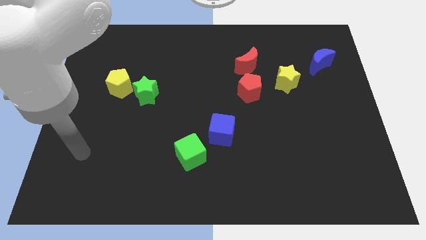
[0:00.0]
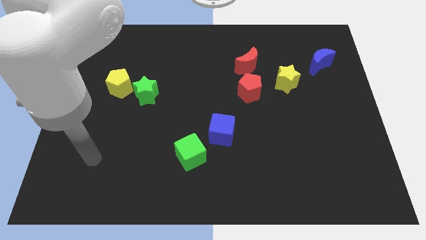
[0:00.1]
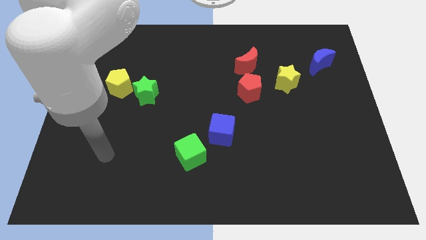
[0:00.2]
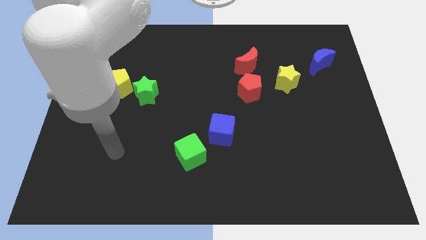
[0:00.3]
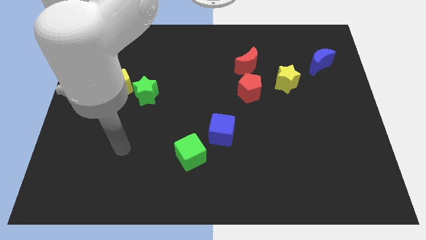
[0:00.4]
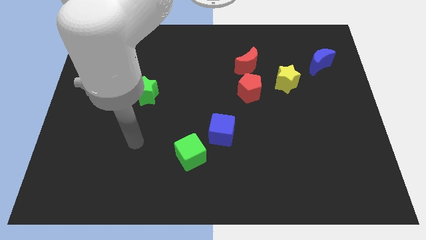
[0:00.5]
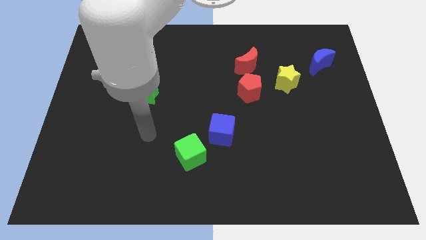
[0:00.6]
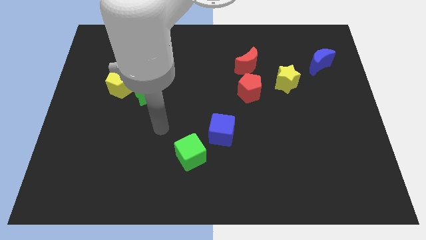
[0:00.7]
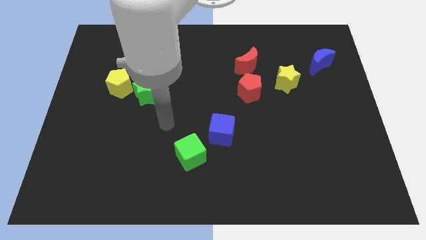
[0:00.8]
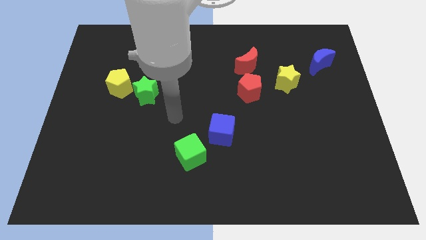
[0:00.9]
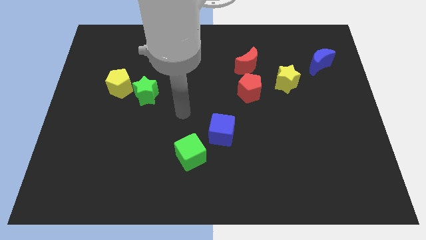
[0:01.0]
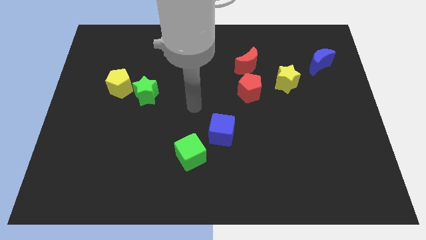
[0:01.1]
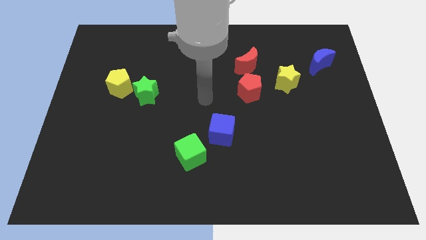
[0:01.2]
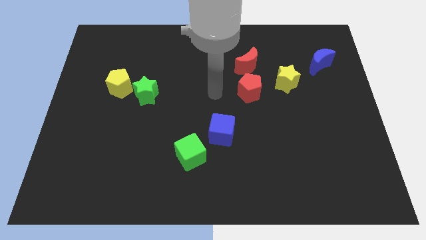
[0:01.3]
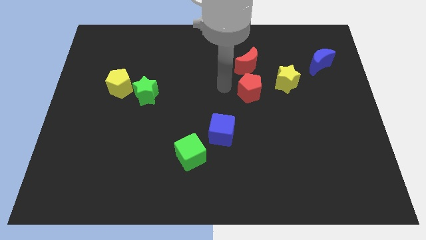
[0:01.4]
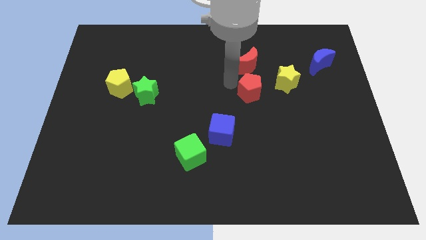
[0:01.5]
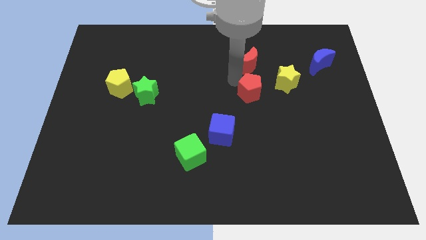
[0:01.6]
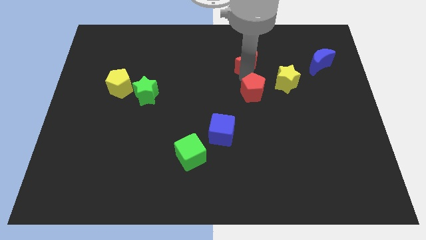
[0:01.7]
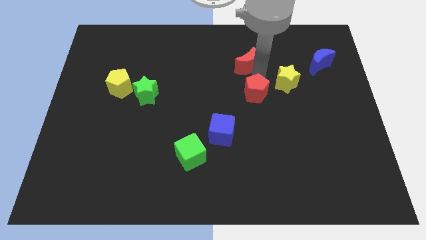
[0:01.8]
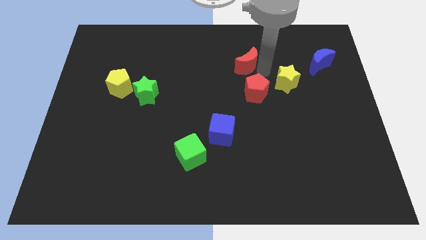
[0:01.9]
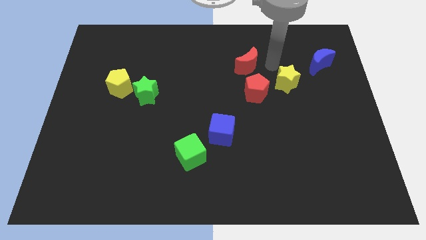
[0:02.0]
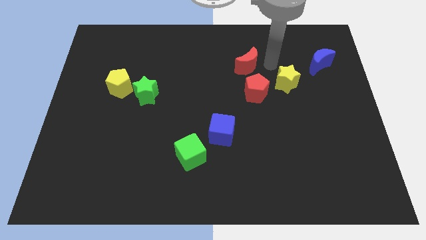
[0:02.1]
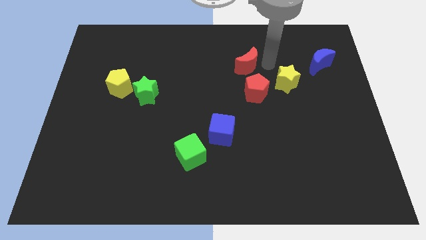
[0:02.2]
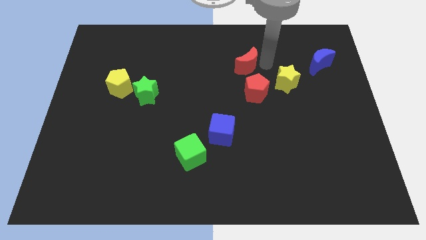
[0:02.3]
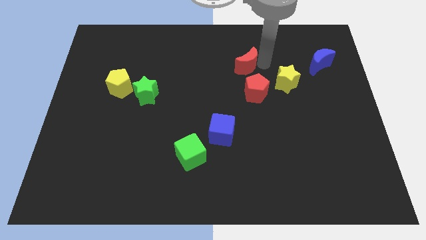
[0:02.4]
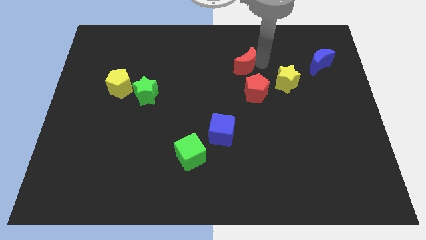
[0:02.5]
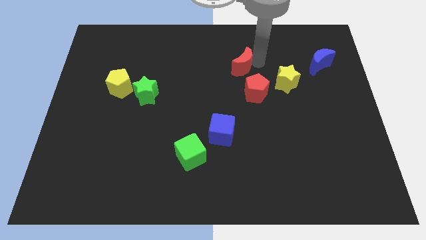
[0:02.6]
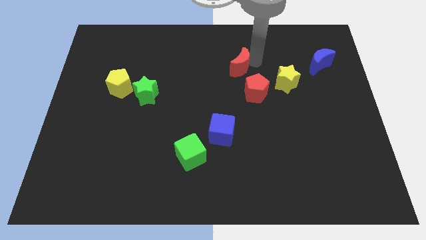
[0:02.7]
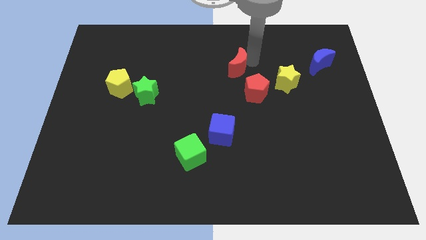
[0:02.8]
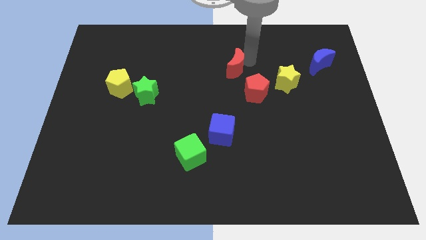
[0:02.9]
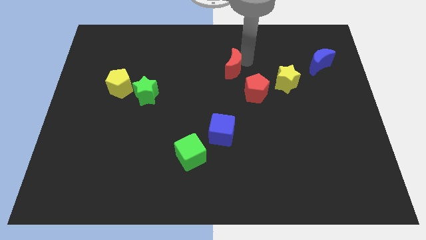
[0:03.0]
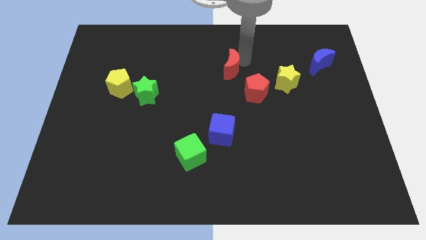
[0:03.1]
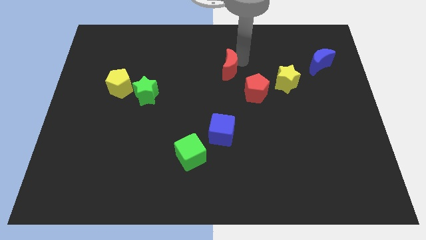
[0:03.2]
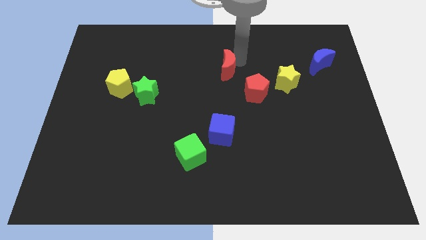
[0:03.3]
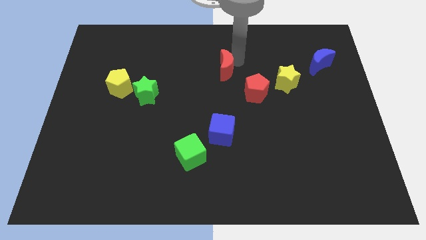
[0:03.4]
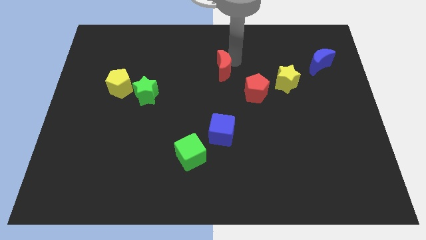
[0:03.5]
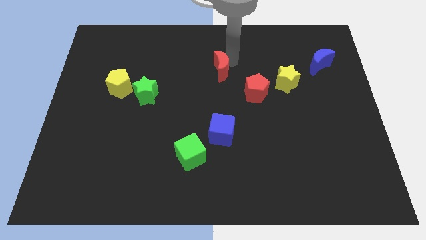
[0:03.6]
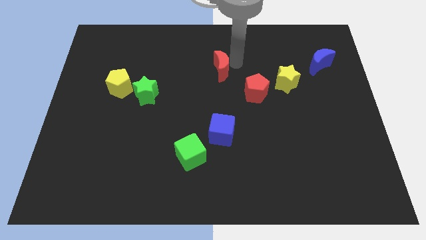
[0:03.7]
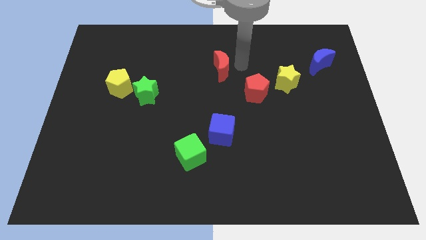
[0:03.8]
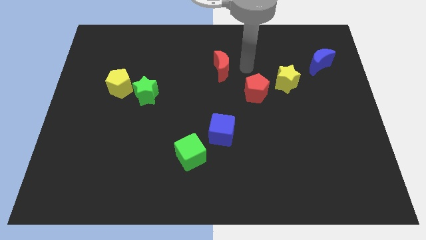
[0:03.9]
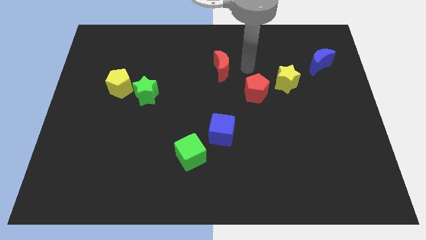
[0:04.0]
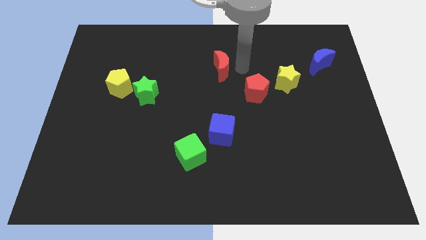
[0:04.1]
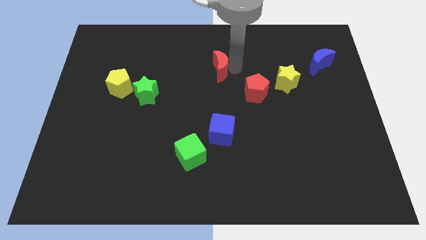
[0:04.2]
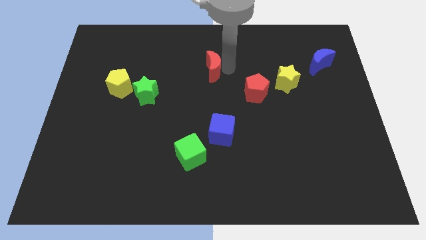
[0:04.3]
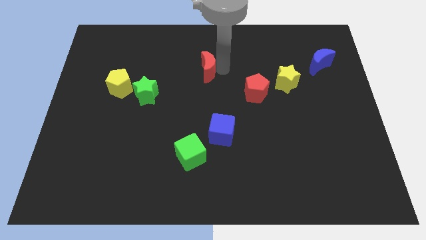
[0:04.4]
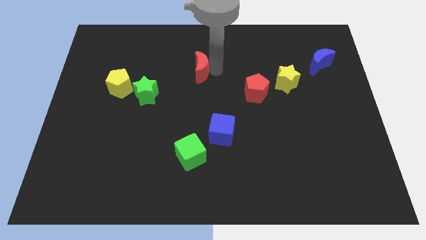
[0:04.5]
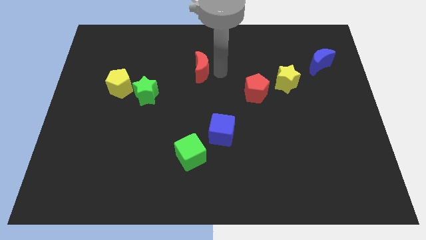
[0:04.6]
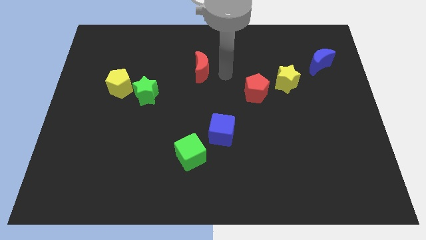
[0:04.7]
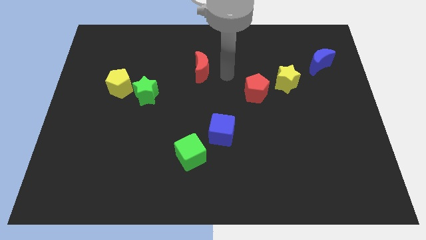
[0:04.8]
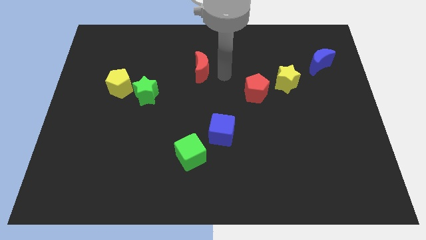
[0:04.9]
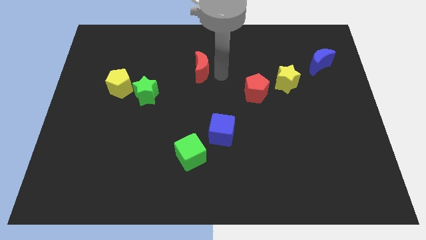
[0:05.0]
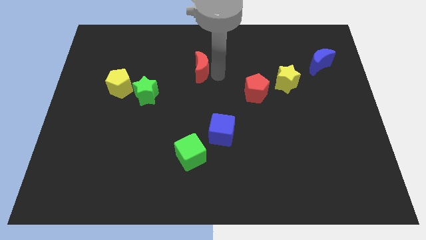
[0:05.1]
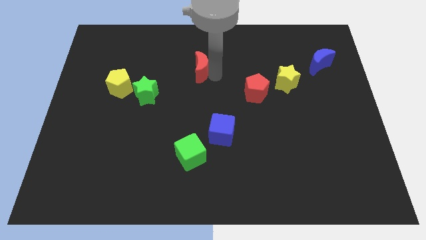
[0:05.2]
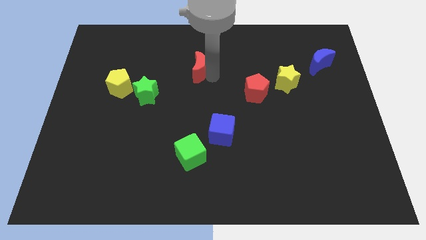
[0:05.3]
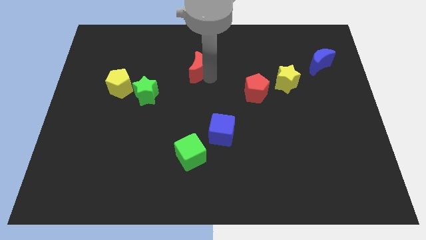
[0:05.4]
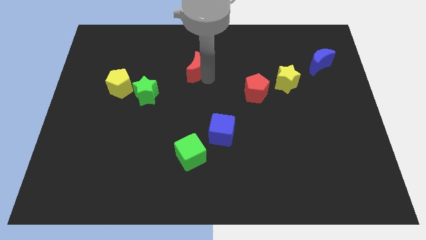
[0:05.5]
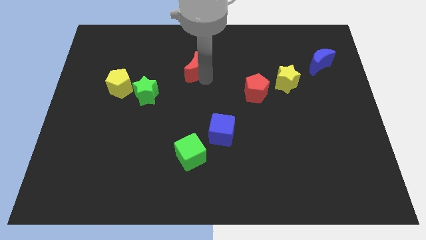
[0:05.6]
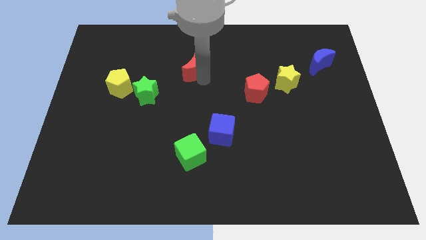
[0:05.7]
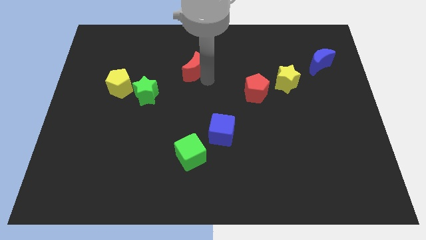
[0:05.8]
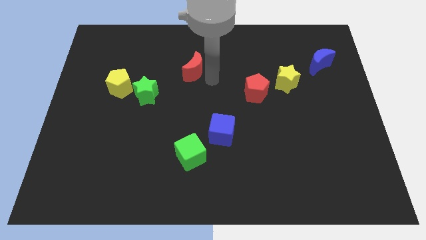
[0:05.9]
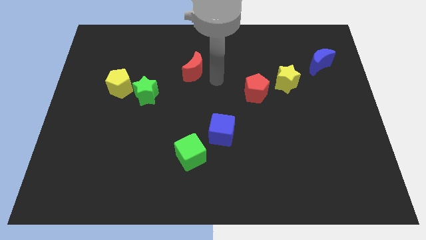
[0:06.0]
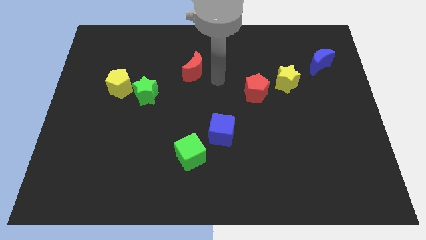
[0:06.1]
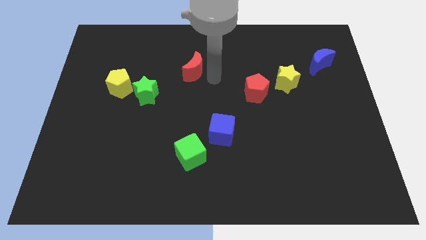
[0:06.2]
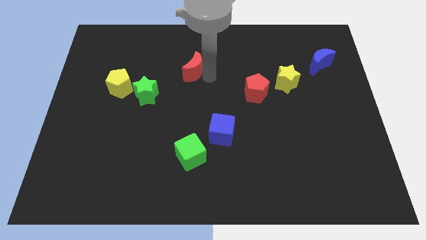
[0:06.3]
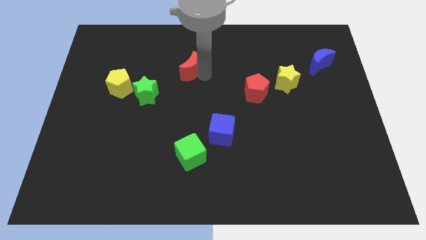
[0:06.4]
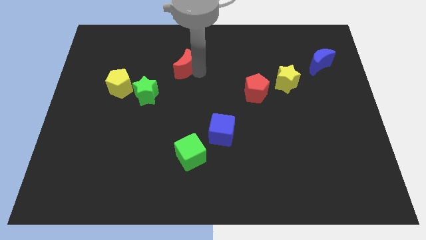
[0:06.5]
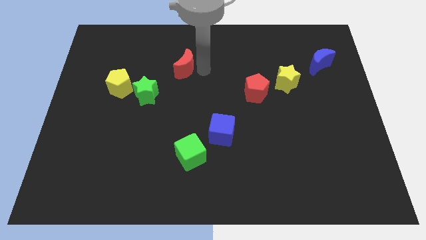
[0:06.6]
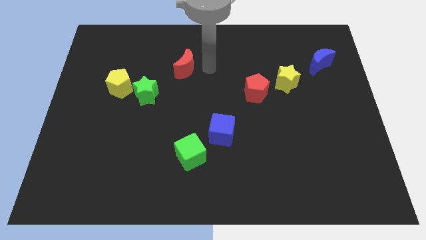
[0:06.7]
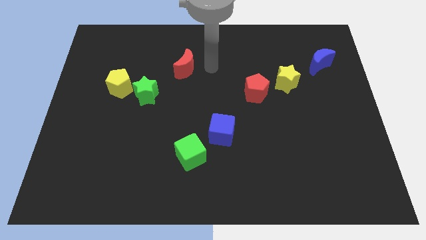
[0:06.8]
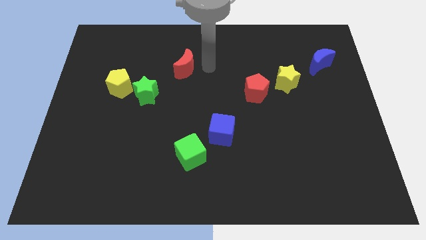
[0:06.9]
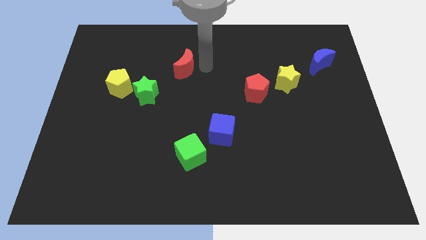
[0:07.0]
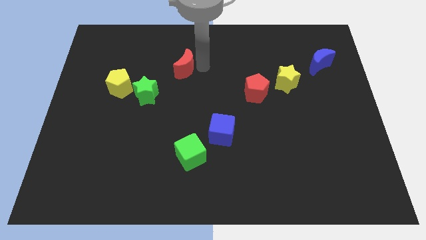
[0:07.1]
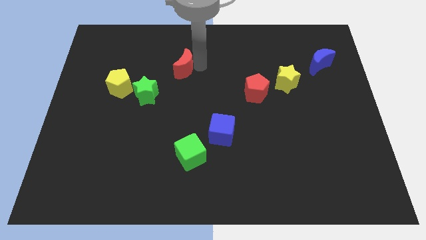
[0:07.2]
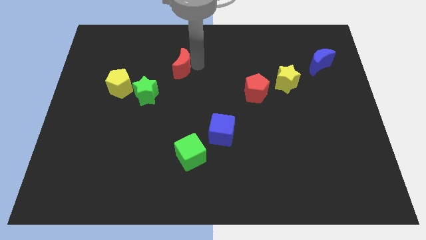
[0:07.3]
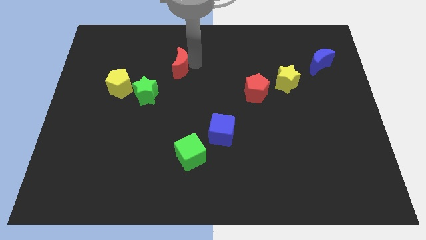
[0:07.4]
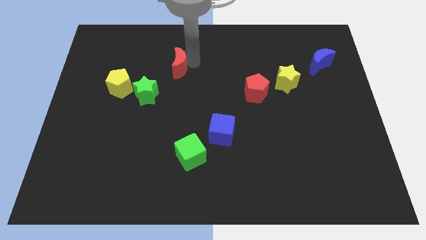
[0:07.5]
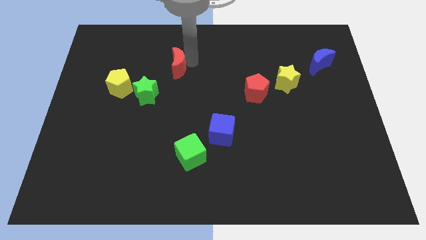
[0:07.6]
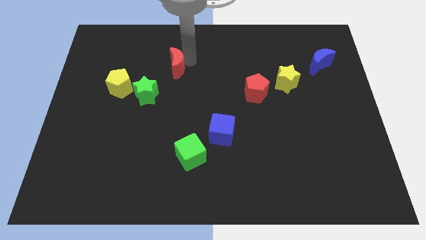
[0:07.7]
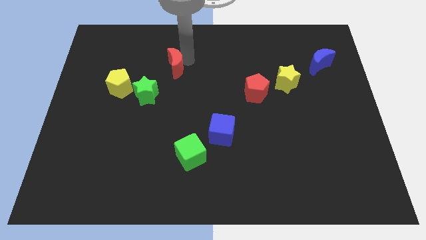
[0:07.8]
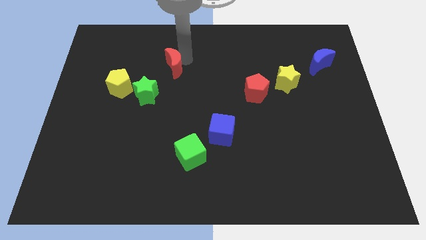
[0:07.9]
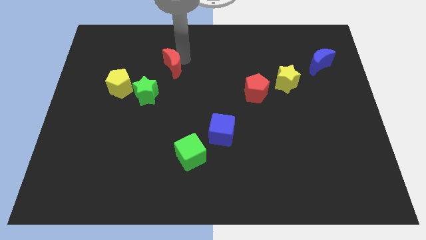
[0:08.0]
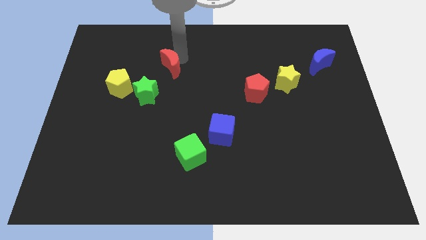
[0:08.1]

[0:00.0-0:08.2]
push the red moon left
